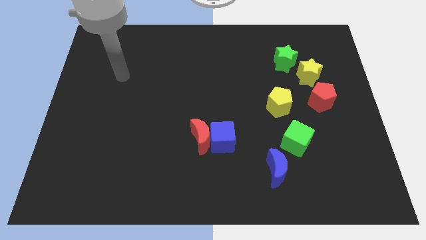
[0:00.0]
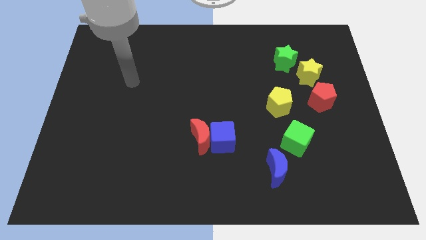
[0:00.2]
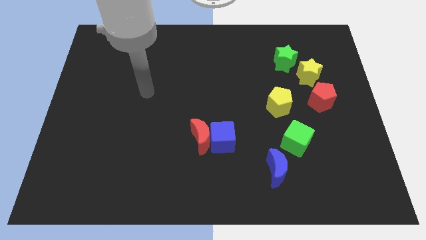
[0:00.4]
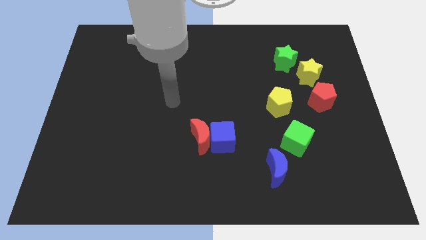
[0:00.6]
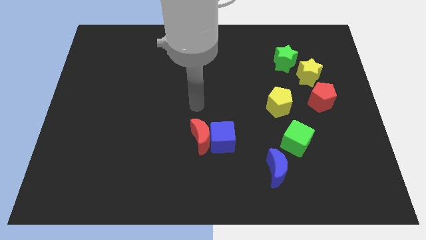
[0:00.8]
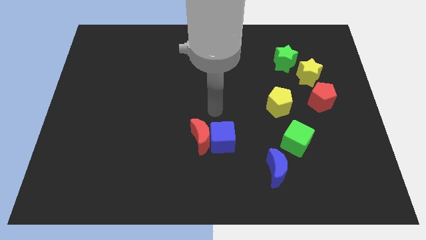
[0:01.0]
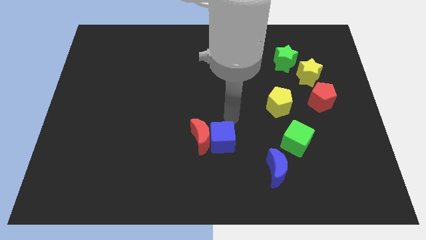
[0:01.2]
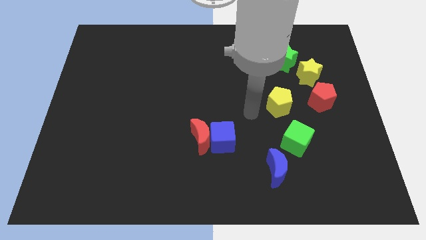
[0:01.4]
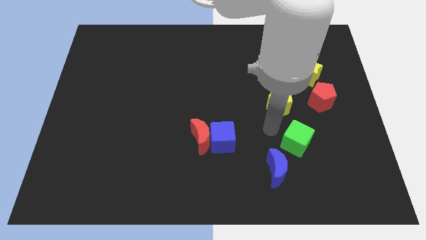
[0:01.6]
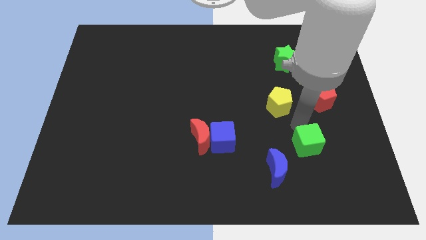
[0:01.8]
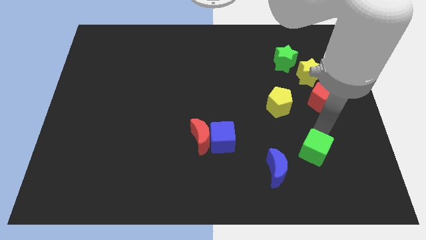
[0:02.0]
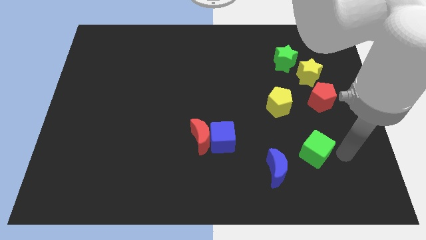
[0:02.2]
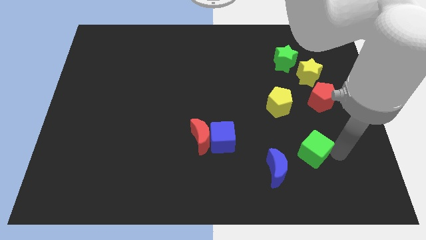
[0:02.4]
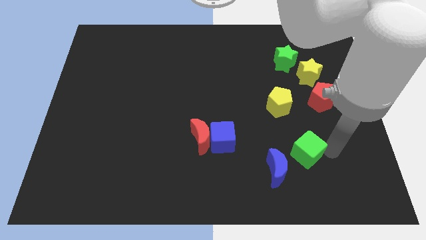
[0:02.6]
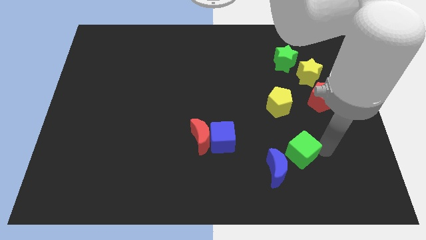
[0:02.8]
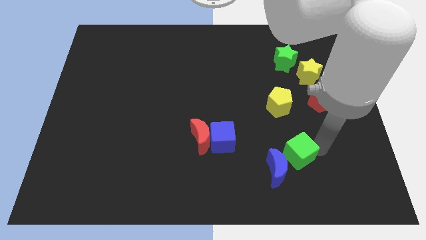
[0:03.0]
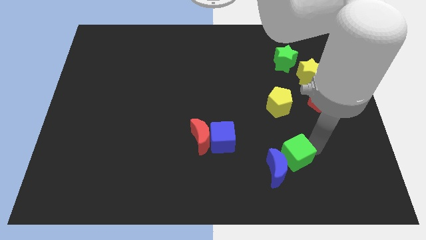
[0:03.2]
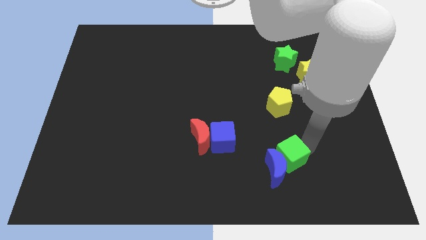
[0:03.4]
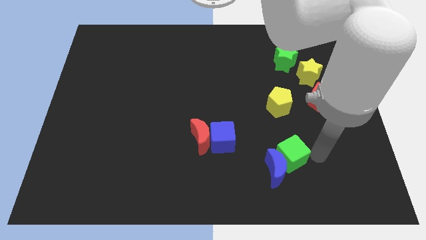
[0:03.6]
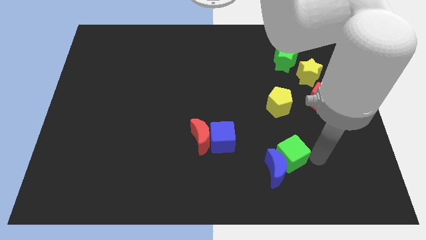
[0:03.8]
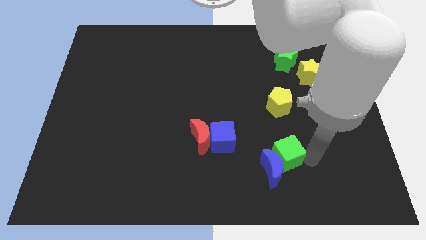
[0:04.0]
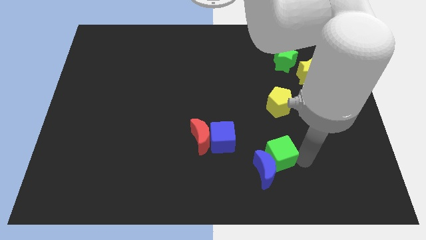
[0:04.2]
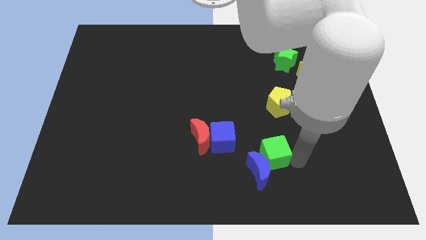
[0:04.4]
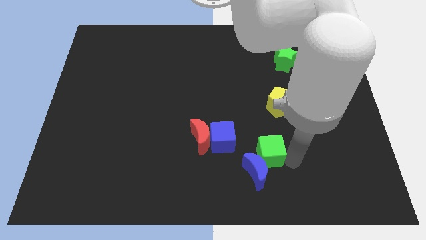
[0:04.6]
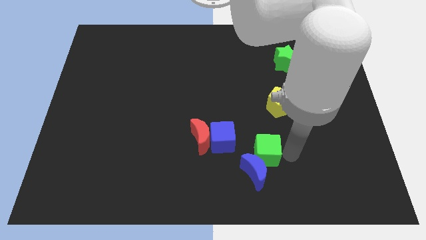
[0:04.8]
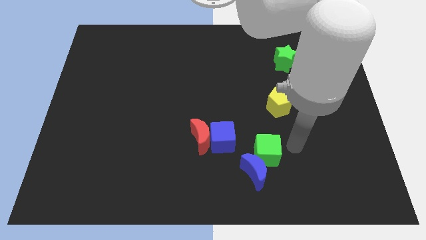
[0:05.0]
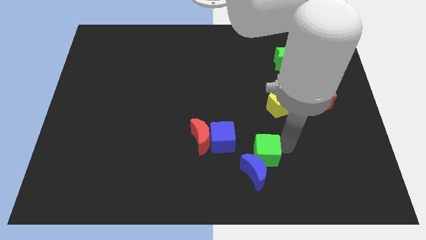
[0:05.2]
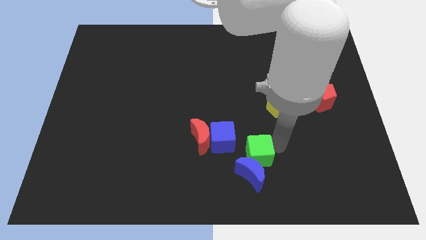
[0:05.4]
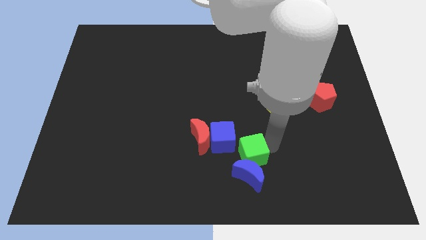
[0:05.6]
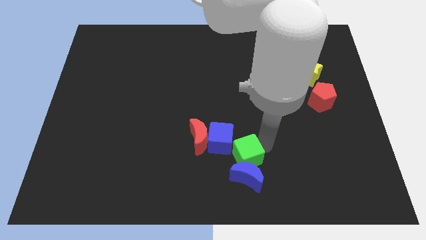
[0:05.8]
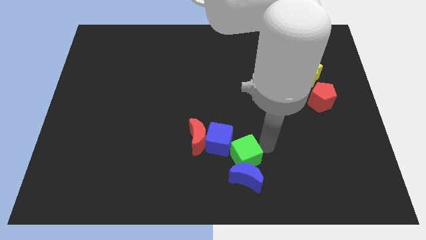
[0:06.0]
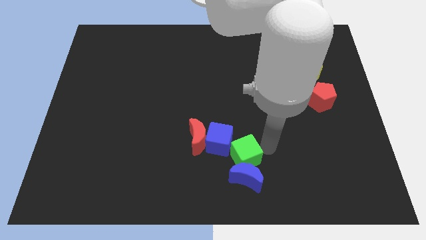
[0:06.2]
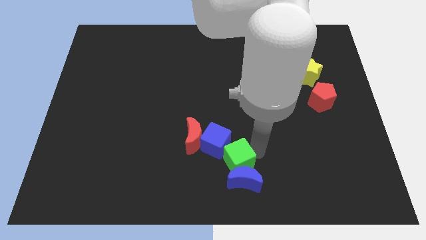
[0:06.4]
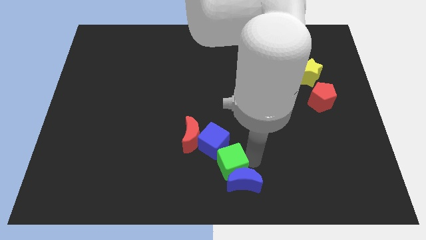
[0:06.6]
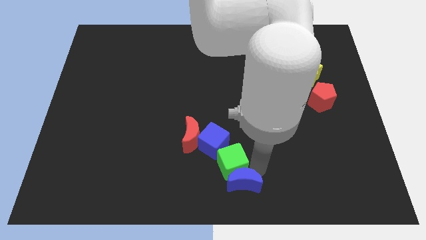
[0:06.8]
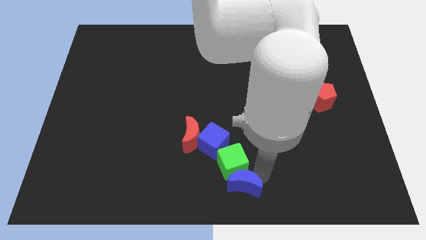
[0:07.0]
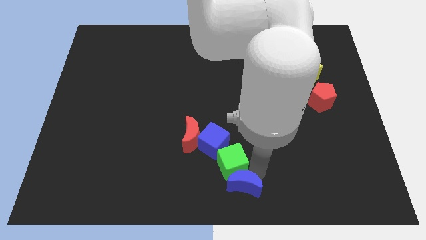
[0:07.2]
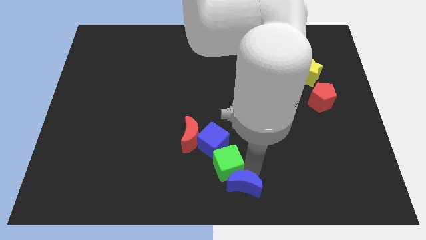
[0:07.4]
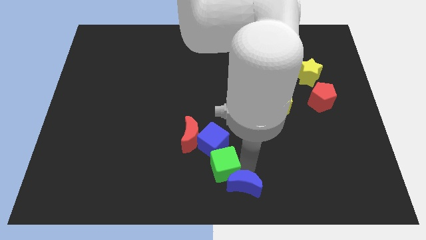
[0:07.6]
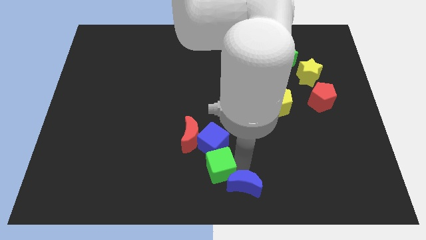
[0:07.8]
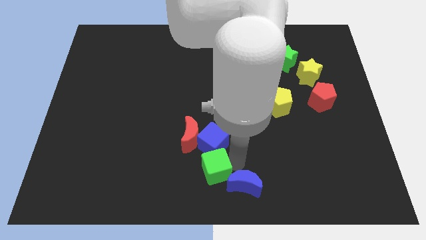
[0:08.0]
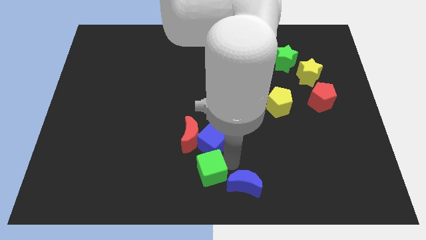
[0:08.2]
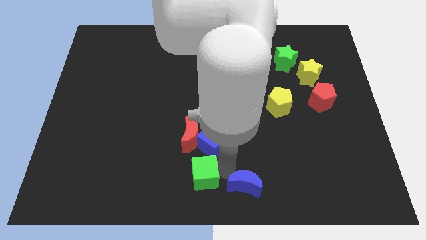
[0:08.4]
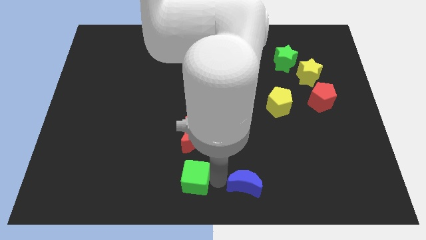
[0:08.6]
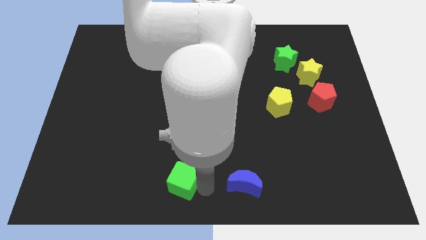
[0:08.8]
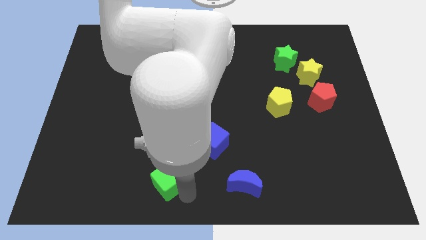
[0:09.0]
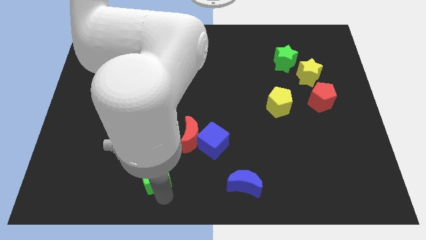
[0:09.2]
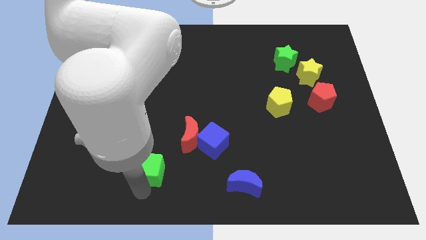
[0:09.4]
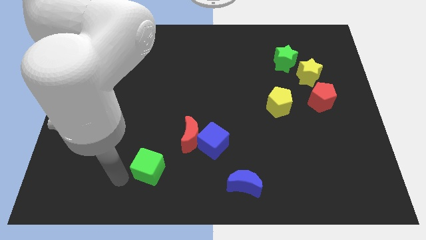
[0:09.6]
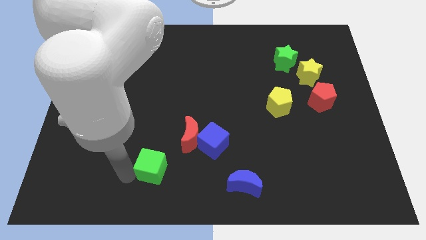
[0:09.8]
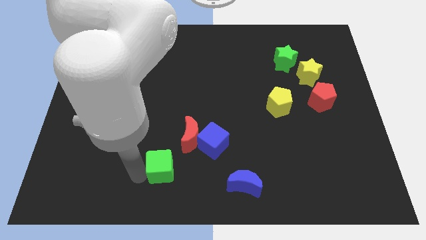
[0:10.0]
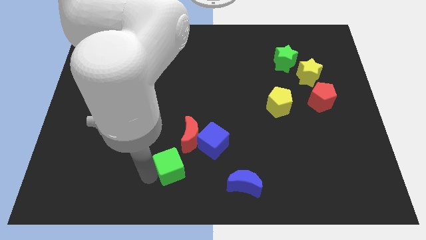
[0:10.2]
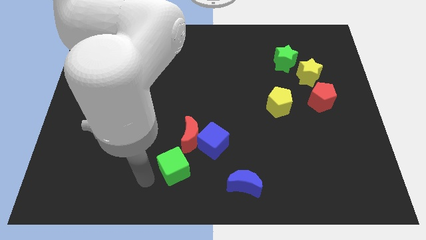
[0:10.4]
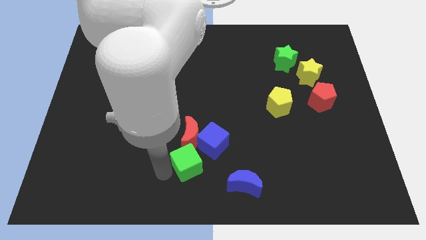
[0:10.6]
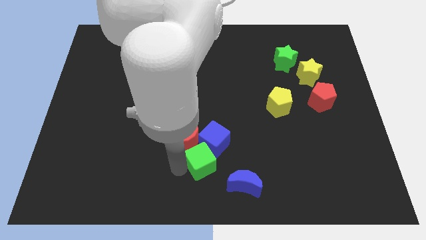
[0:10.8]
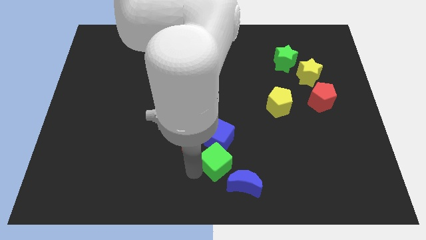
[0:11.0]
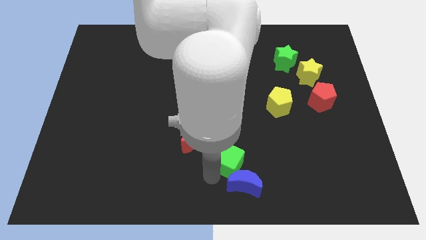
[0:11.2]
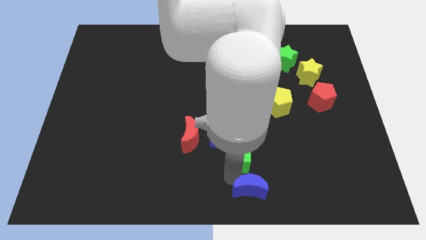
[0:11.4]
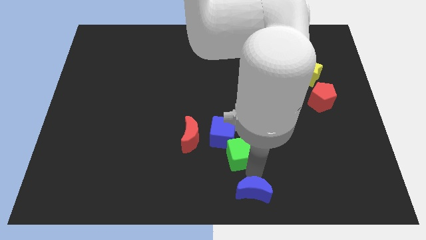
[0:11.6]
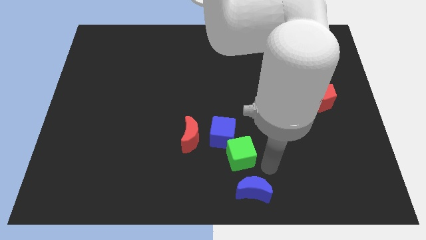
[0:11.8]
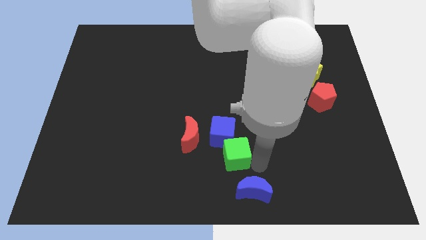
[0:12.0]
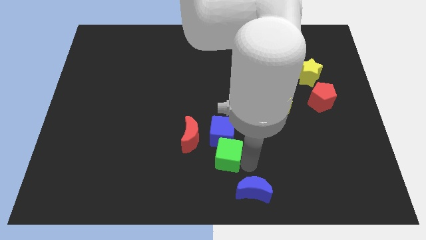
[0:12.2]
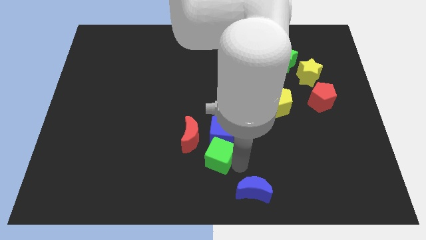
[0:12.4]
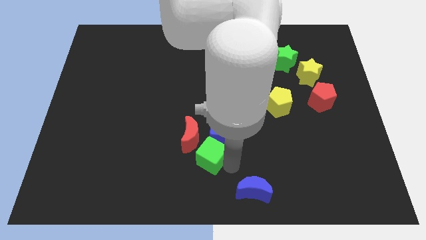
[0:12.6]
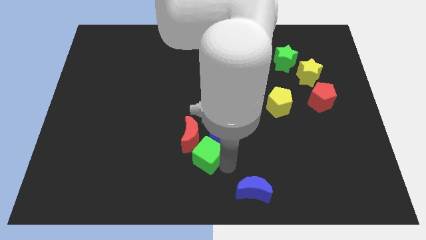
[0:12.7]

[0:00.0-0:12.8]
put the green cube next to the red moon
